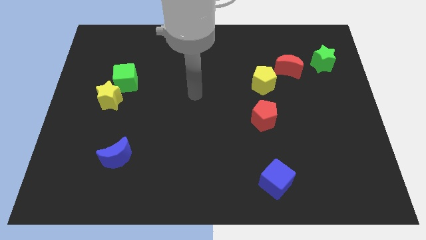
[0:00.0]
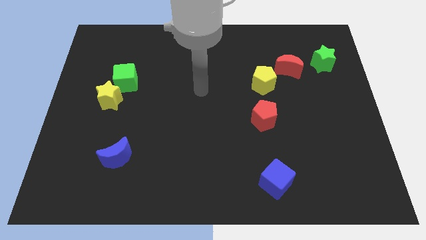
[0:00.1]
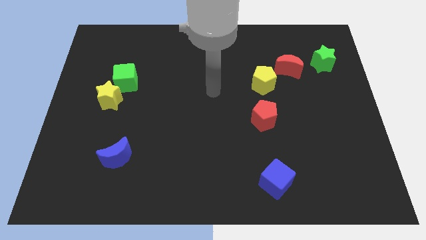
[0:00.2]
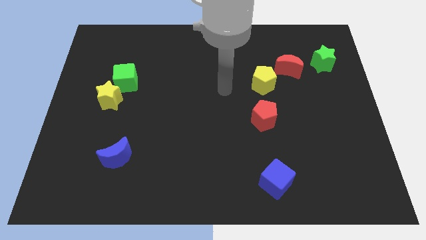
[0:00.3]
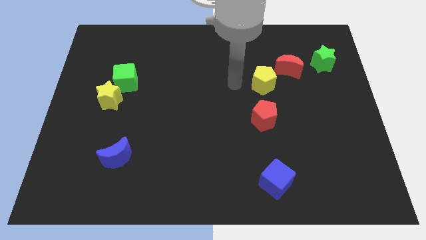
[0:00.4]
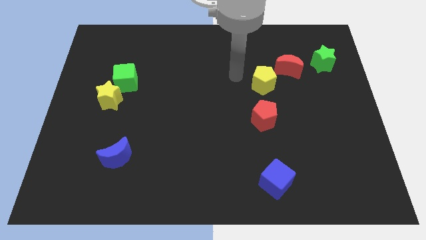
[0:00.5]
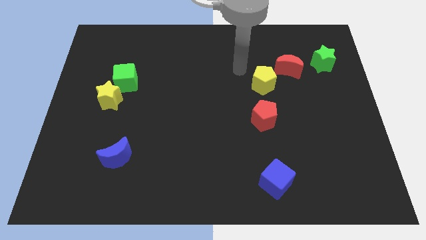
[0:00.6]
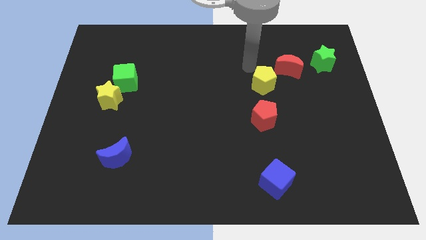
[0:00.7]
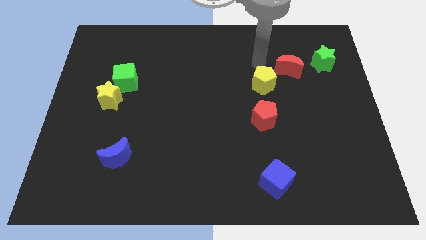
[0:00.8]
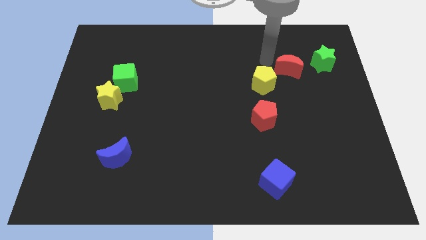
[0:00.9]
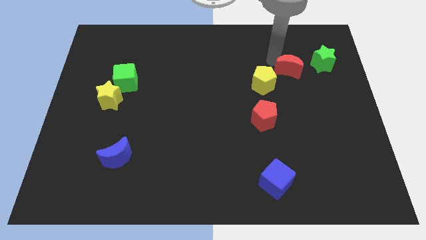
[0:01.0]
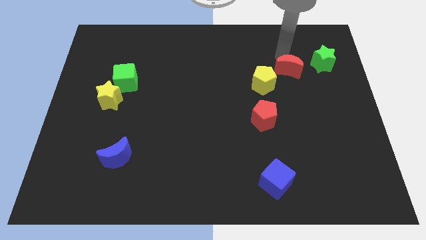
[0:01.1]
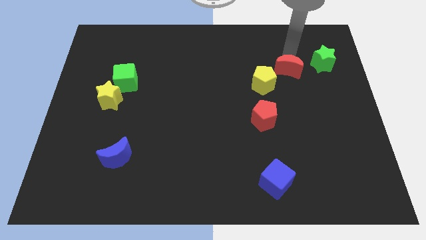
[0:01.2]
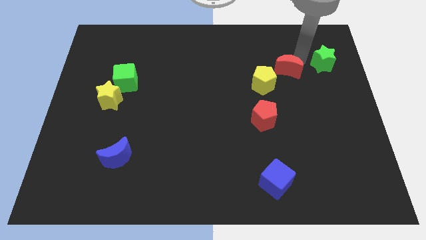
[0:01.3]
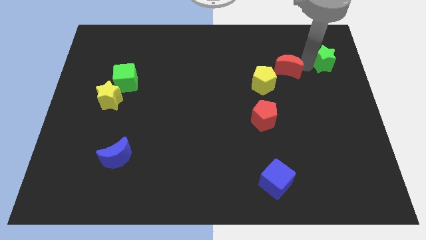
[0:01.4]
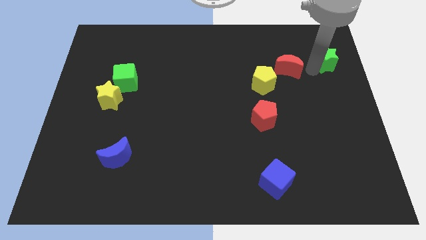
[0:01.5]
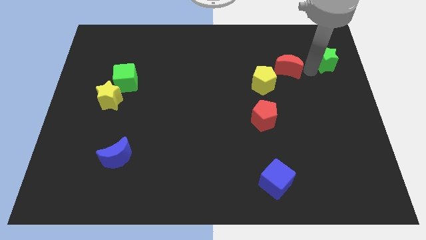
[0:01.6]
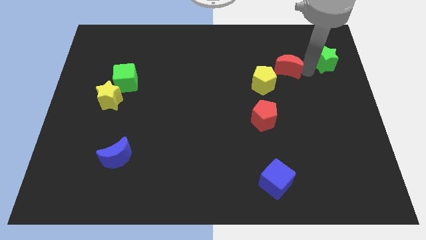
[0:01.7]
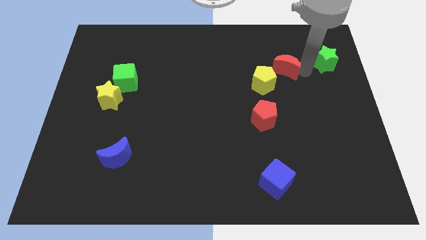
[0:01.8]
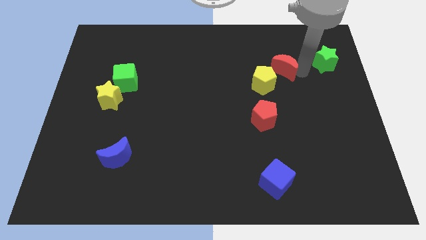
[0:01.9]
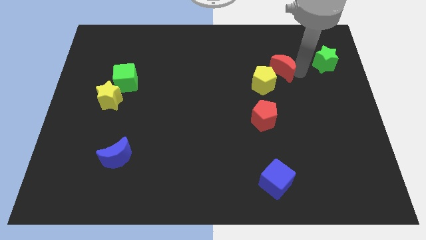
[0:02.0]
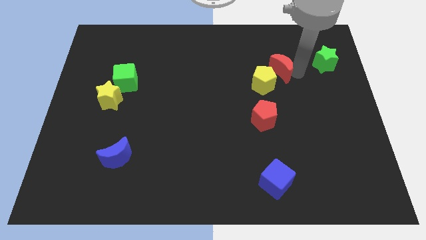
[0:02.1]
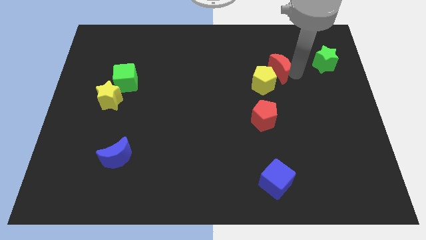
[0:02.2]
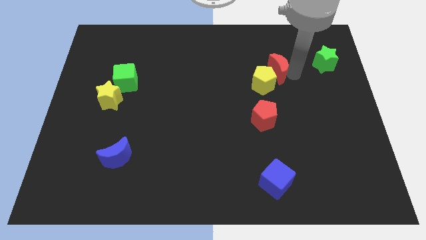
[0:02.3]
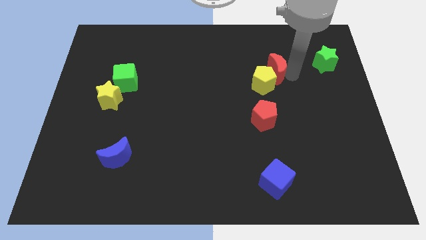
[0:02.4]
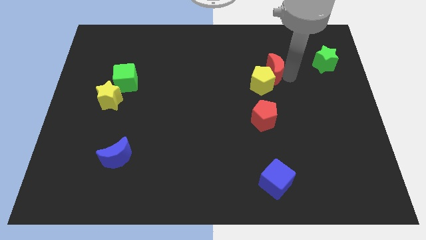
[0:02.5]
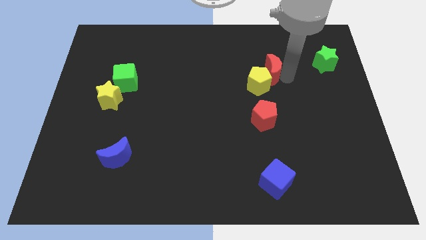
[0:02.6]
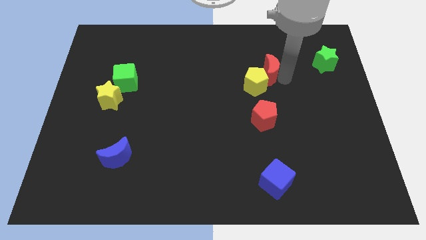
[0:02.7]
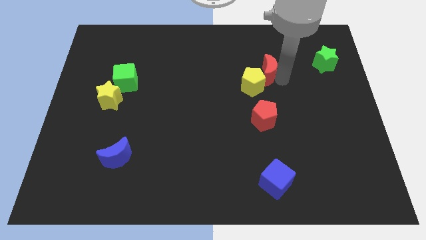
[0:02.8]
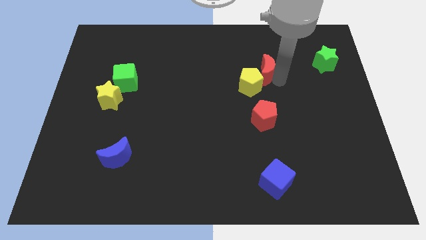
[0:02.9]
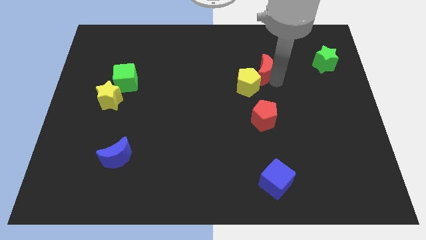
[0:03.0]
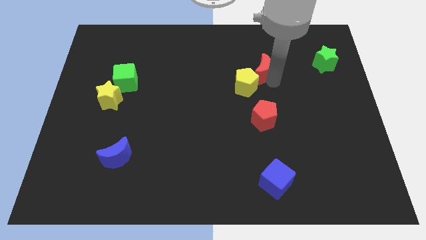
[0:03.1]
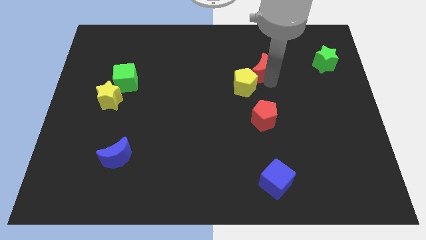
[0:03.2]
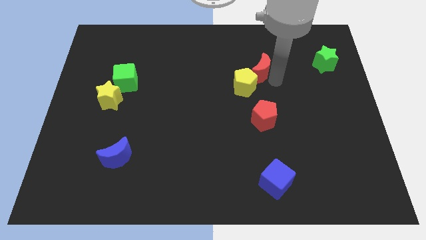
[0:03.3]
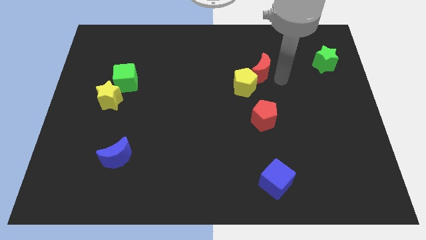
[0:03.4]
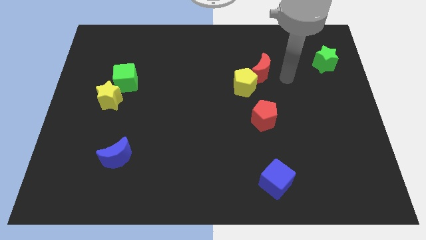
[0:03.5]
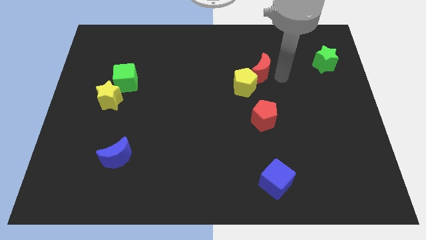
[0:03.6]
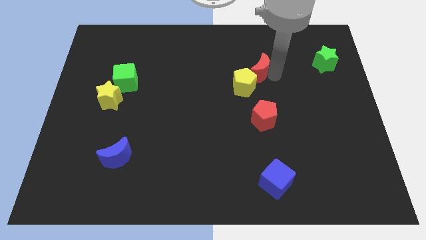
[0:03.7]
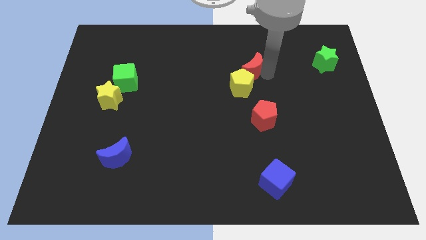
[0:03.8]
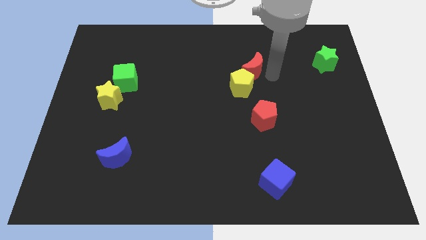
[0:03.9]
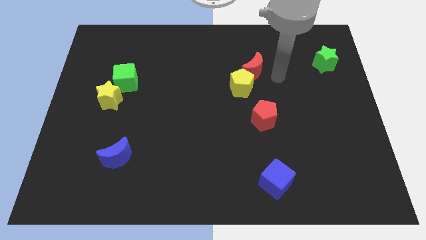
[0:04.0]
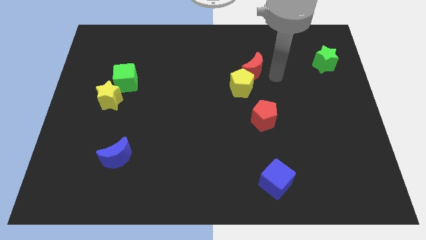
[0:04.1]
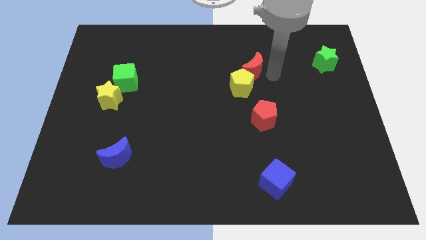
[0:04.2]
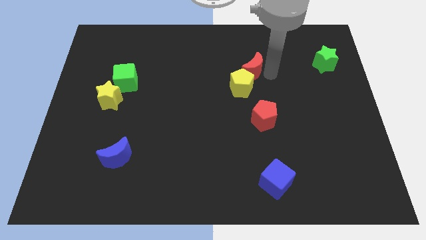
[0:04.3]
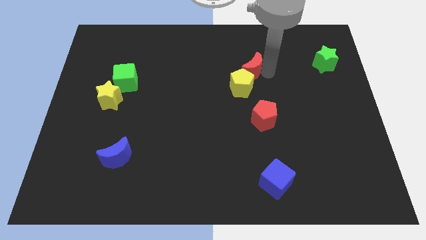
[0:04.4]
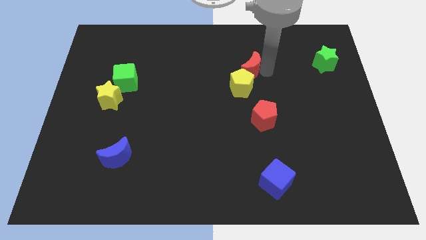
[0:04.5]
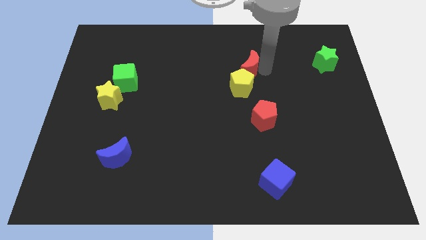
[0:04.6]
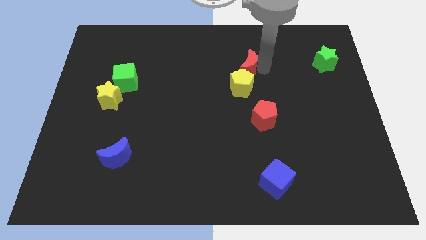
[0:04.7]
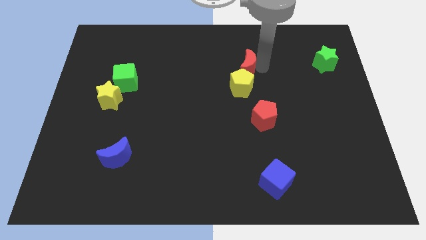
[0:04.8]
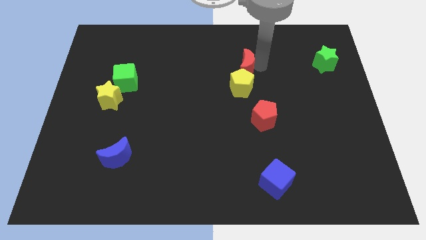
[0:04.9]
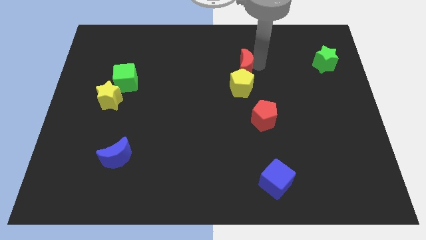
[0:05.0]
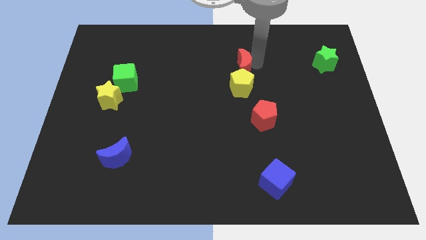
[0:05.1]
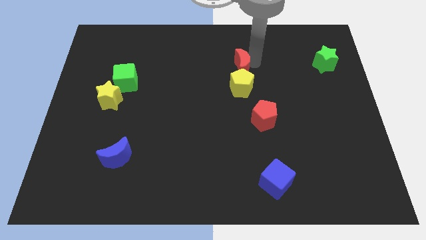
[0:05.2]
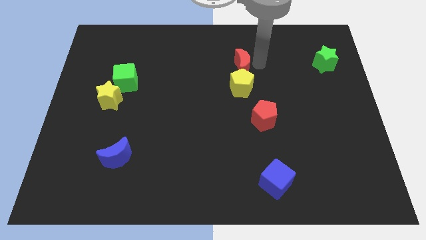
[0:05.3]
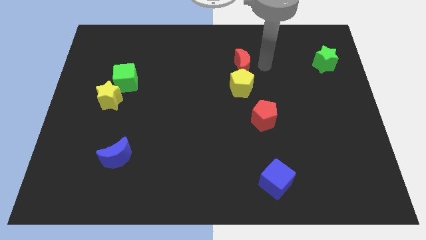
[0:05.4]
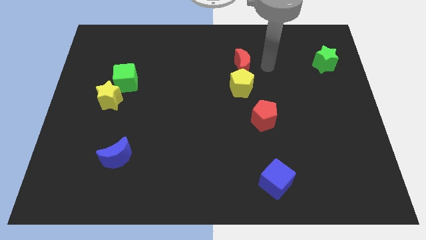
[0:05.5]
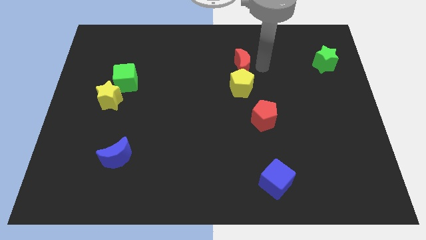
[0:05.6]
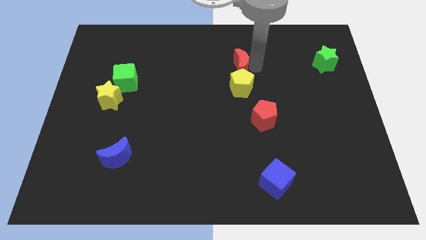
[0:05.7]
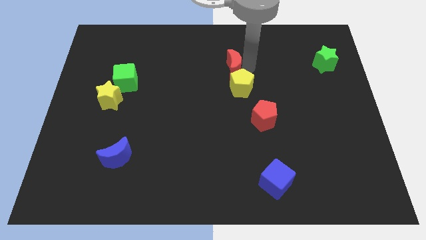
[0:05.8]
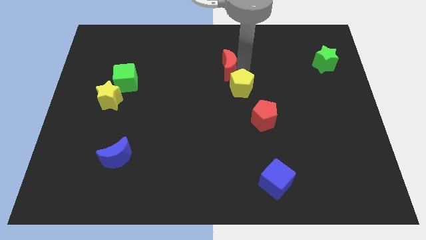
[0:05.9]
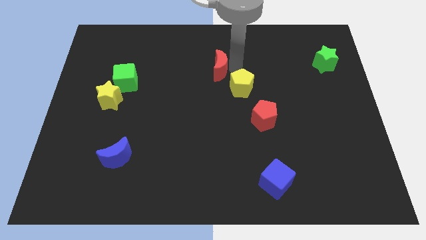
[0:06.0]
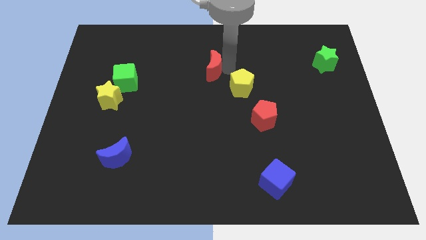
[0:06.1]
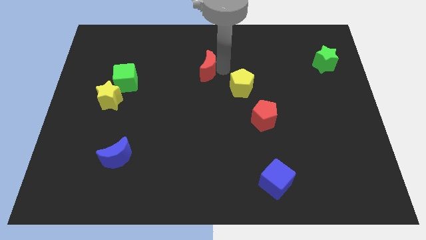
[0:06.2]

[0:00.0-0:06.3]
push the red moon to the left

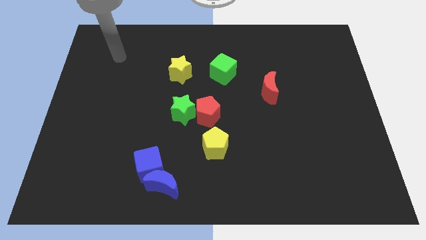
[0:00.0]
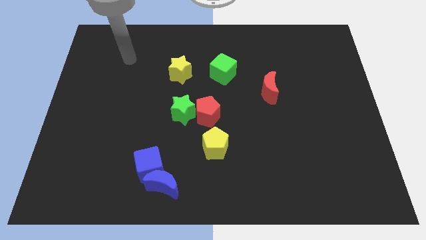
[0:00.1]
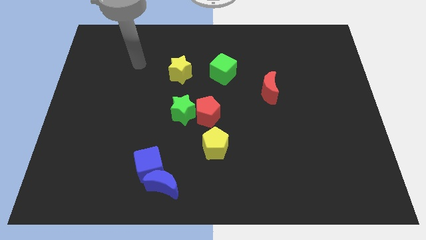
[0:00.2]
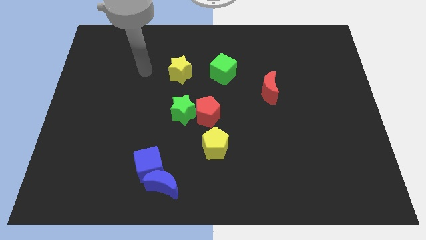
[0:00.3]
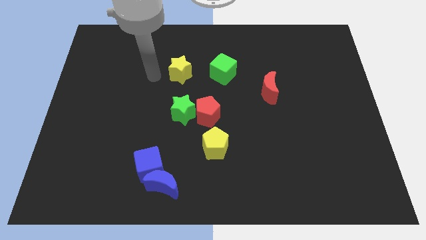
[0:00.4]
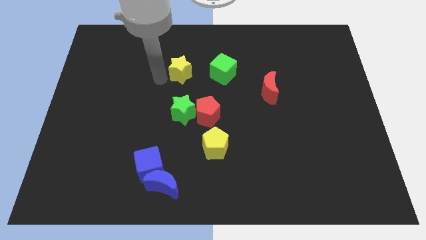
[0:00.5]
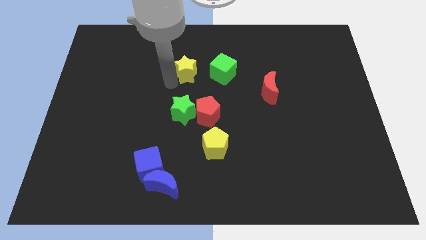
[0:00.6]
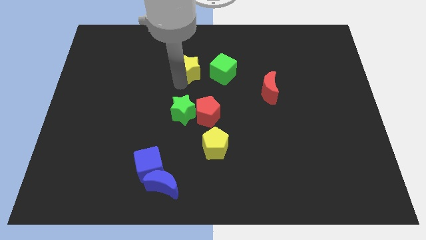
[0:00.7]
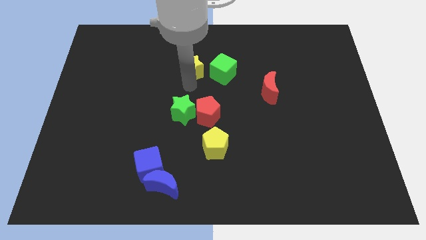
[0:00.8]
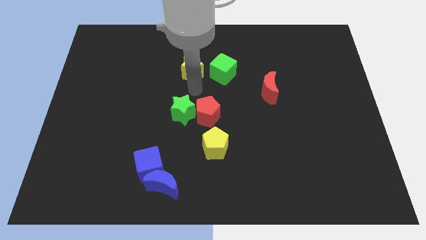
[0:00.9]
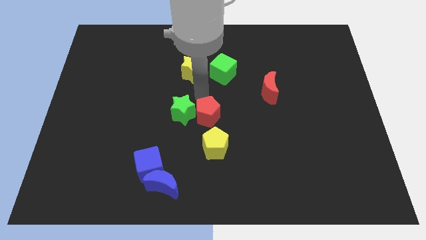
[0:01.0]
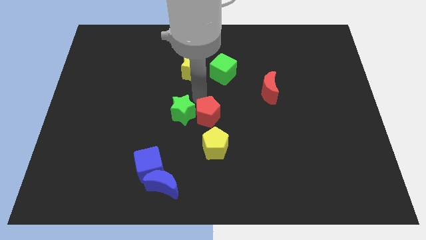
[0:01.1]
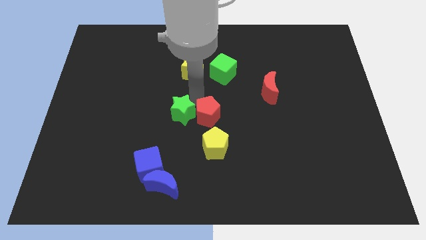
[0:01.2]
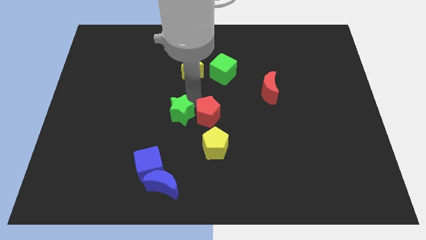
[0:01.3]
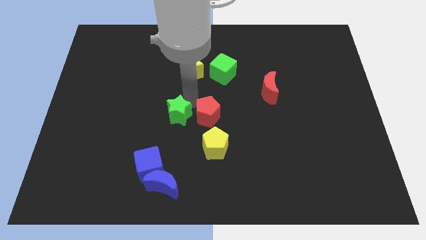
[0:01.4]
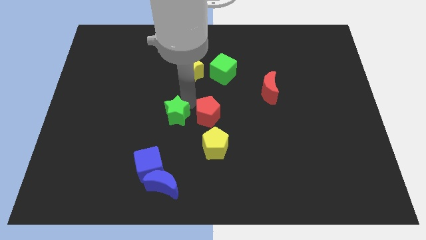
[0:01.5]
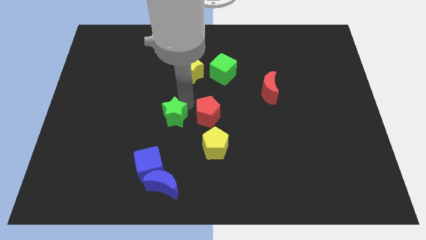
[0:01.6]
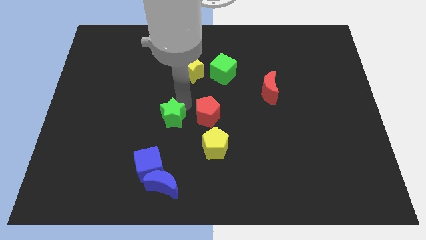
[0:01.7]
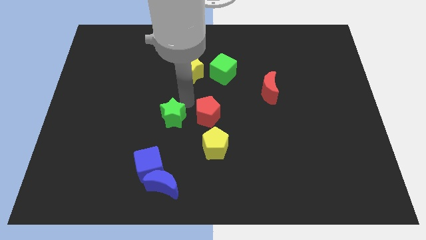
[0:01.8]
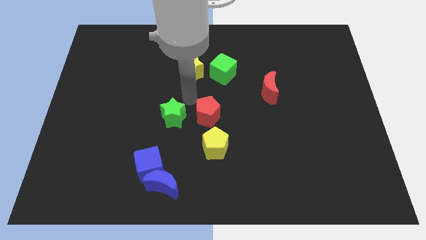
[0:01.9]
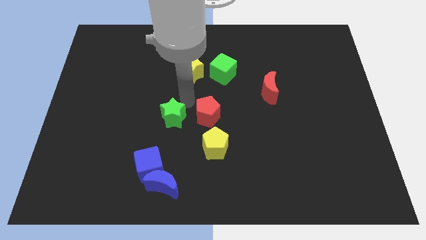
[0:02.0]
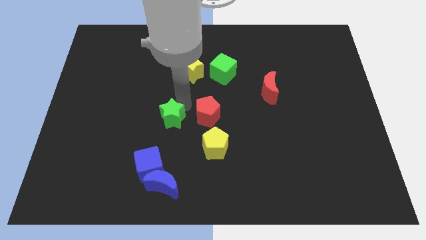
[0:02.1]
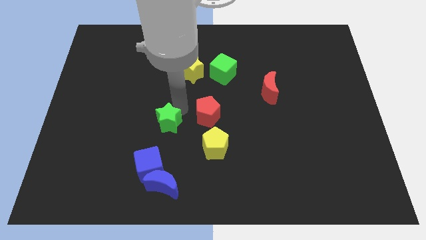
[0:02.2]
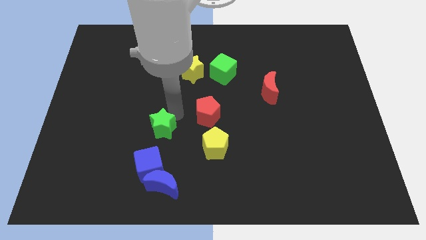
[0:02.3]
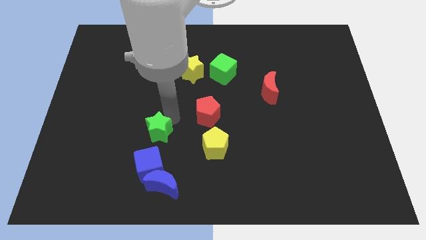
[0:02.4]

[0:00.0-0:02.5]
slightly slide the green star down and to the left diagonally
